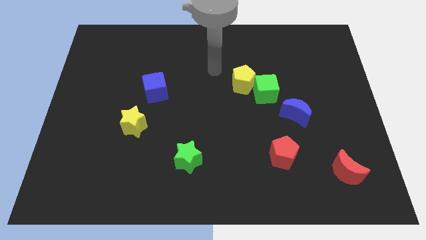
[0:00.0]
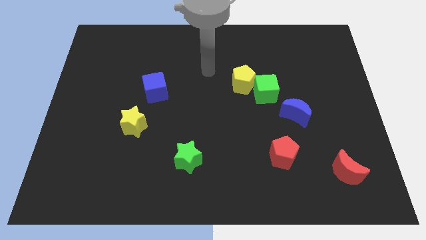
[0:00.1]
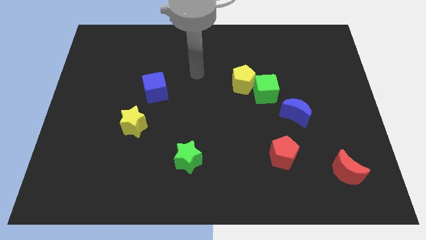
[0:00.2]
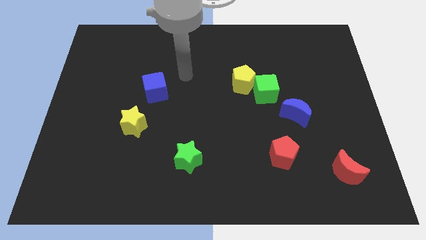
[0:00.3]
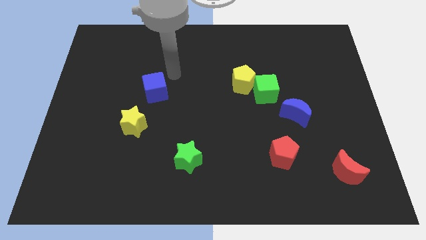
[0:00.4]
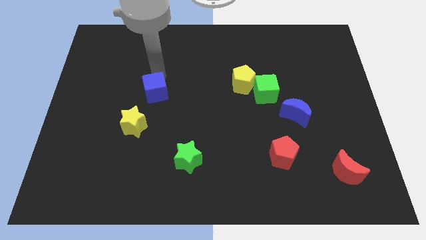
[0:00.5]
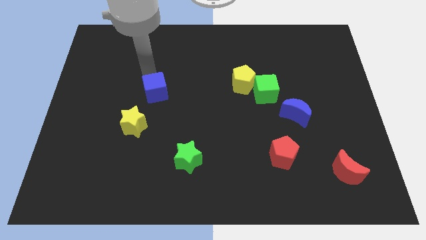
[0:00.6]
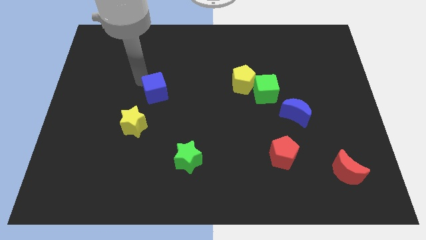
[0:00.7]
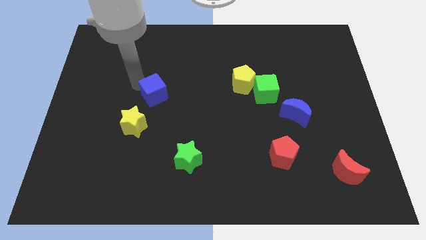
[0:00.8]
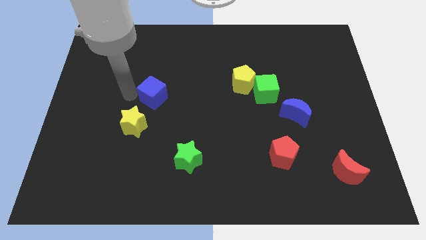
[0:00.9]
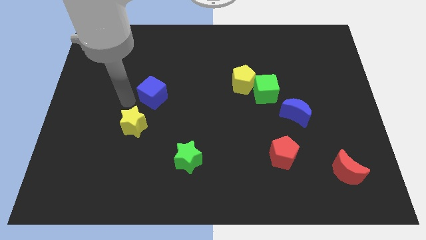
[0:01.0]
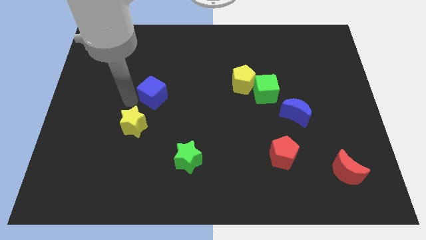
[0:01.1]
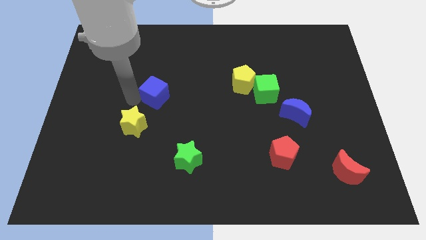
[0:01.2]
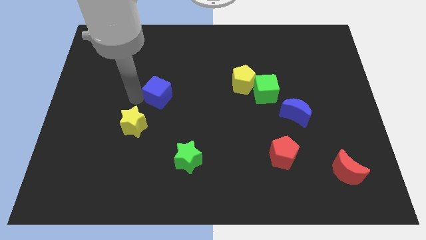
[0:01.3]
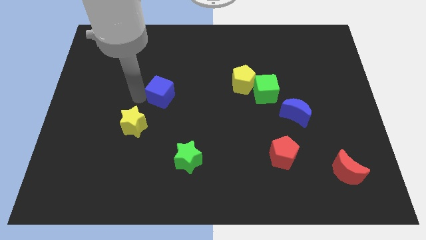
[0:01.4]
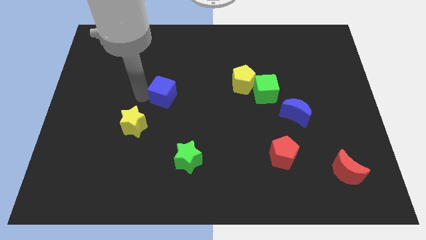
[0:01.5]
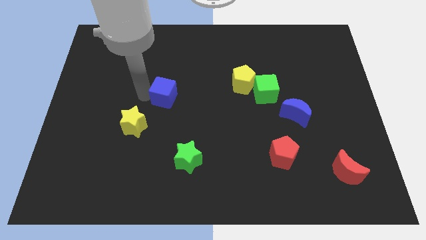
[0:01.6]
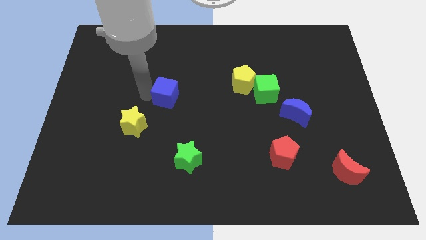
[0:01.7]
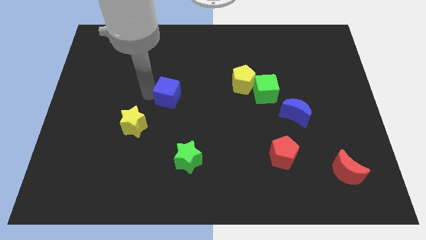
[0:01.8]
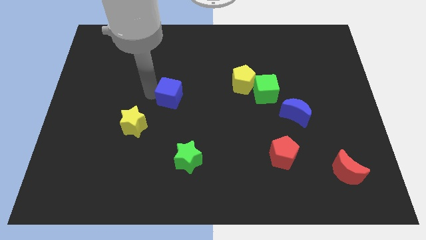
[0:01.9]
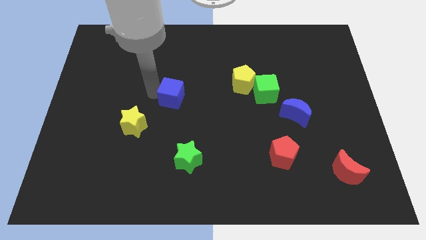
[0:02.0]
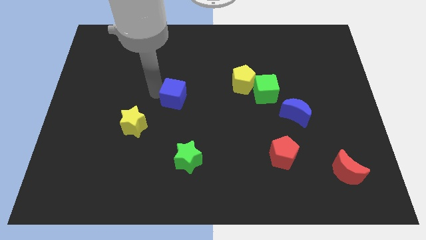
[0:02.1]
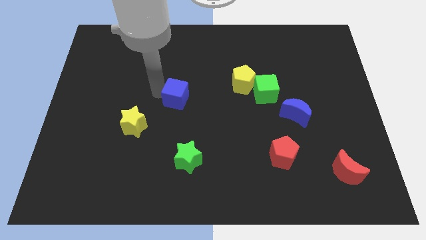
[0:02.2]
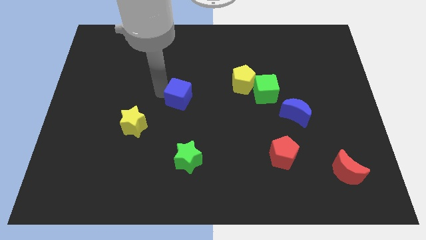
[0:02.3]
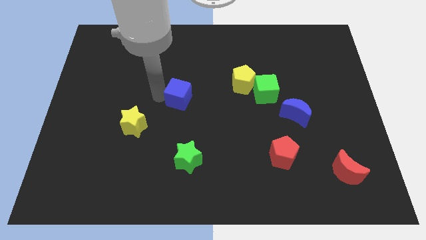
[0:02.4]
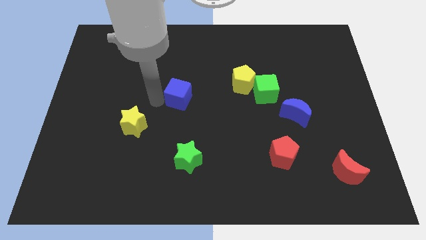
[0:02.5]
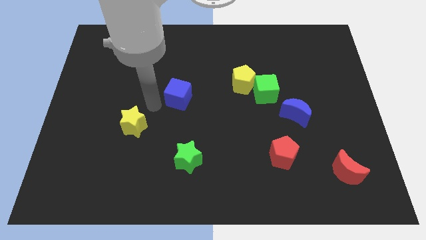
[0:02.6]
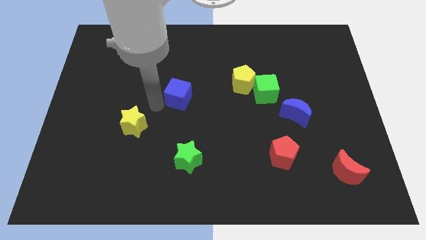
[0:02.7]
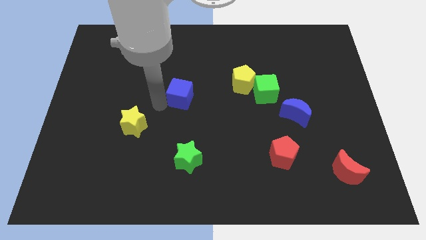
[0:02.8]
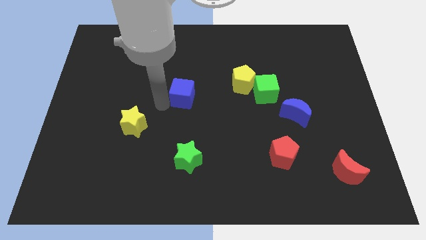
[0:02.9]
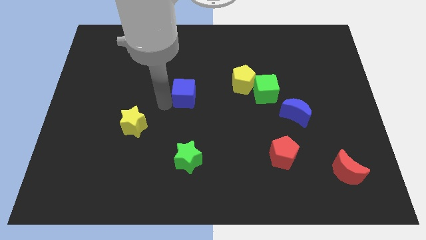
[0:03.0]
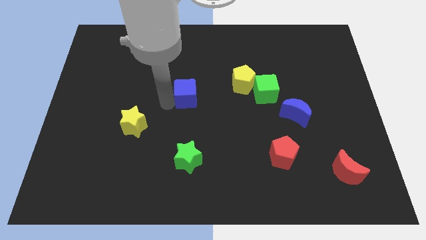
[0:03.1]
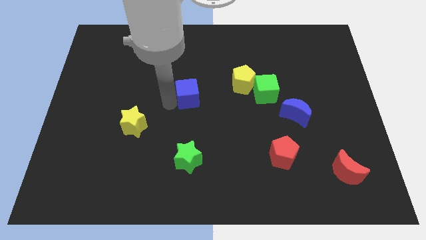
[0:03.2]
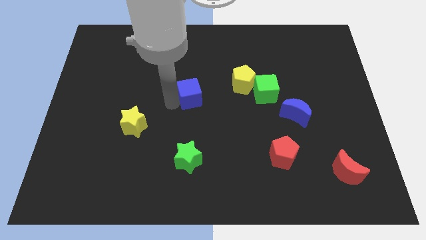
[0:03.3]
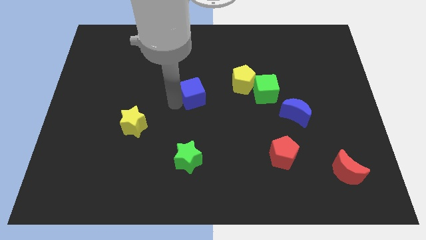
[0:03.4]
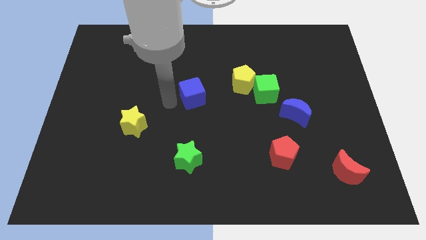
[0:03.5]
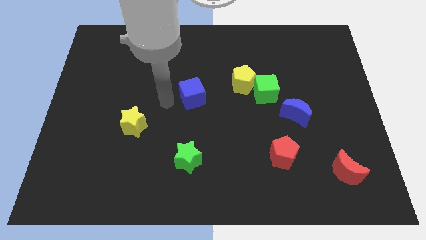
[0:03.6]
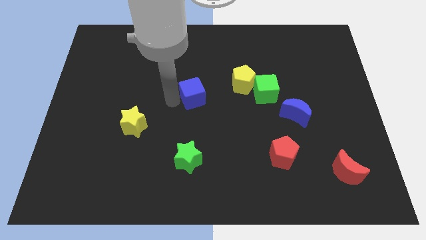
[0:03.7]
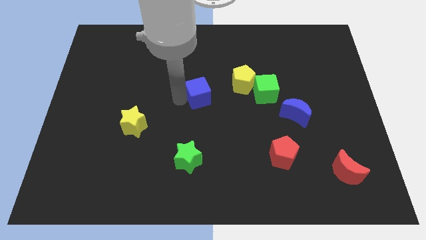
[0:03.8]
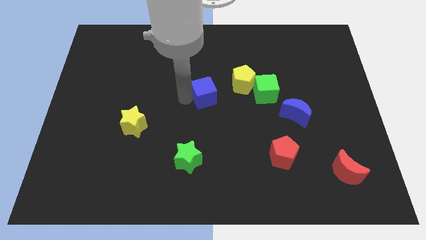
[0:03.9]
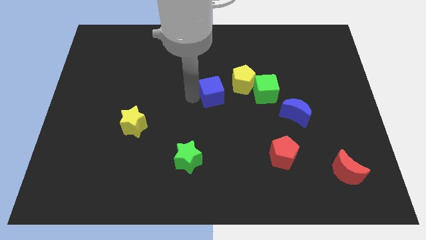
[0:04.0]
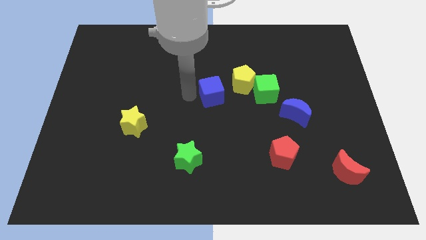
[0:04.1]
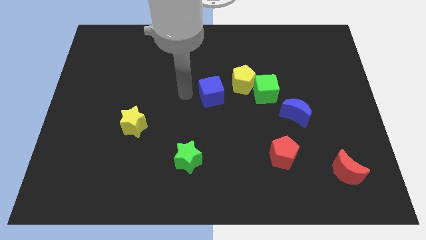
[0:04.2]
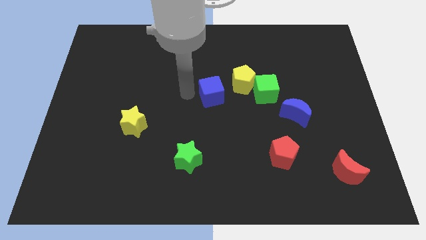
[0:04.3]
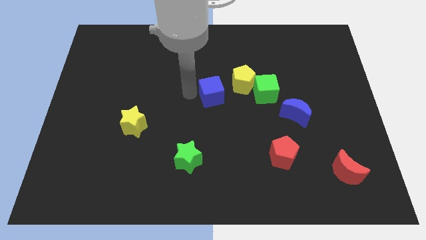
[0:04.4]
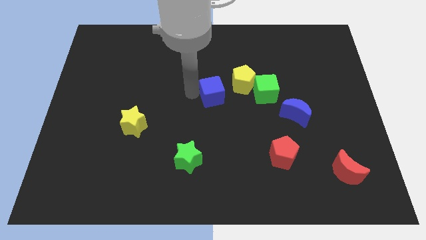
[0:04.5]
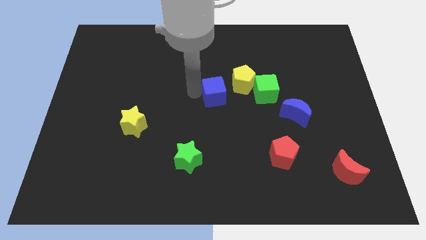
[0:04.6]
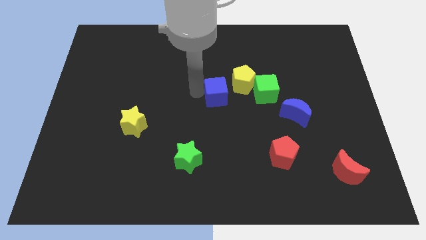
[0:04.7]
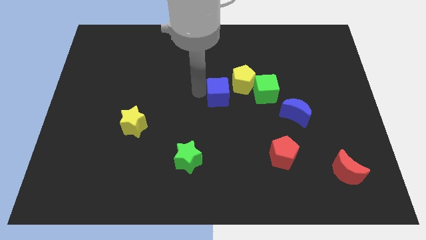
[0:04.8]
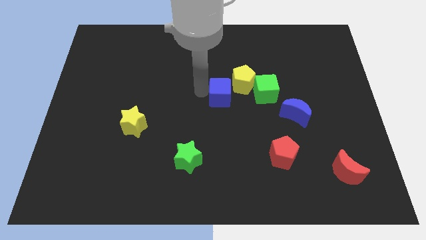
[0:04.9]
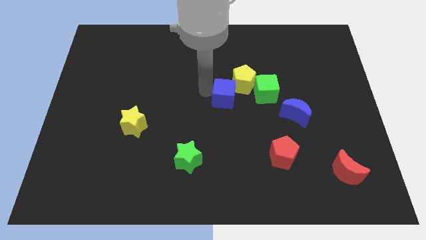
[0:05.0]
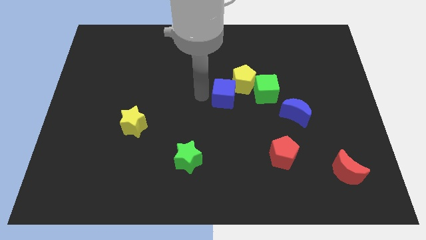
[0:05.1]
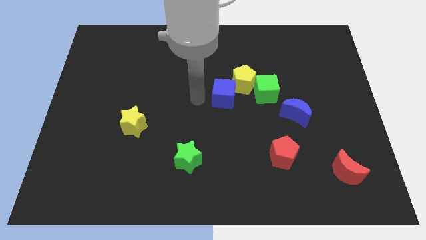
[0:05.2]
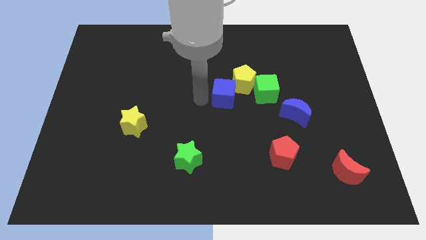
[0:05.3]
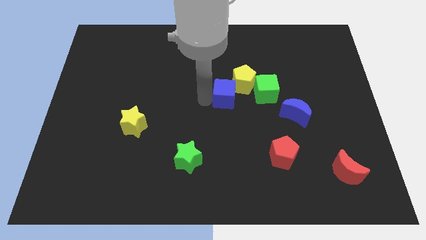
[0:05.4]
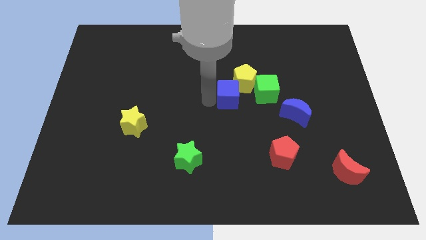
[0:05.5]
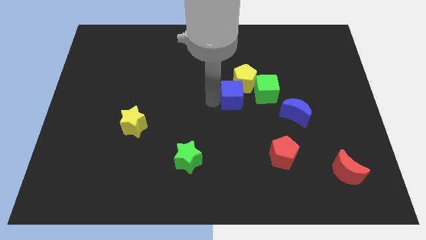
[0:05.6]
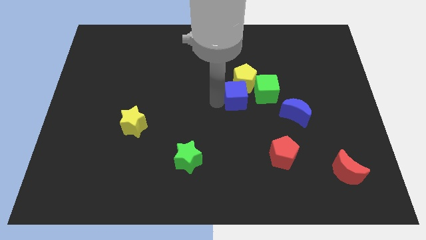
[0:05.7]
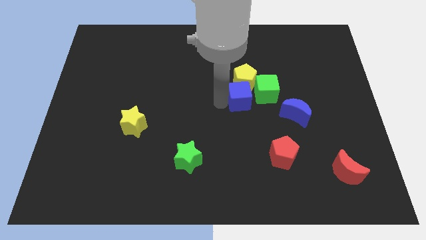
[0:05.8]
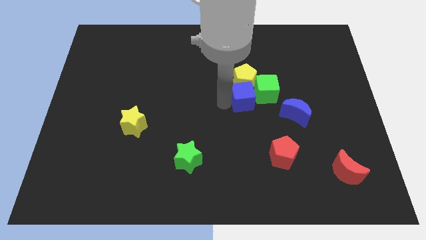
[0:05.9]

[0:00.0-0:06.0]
move the blue cube next to the green cube

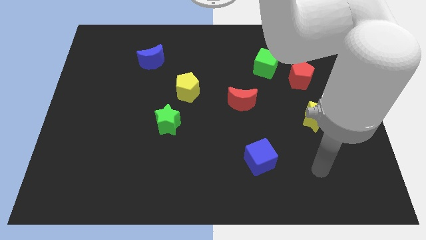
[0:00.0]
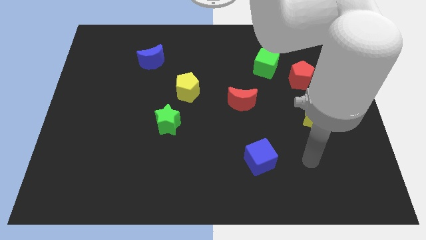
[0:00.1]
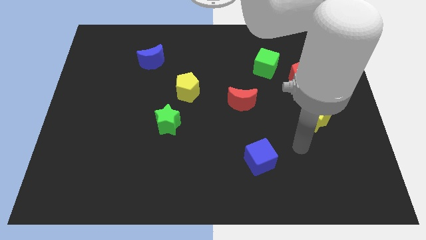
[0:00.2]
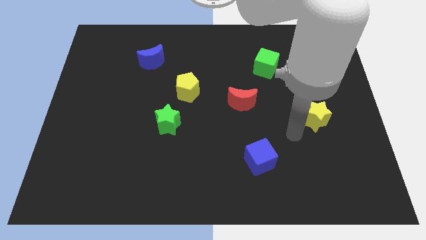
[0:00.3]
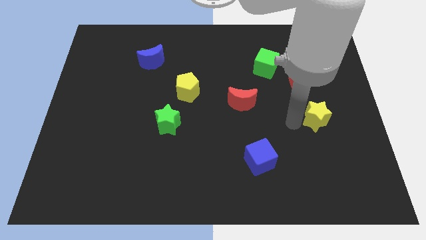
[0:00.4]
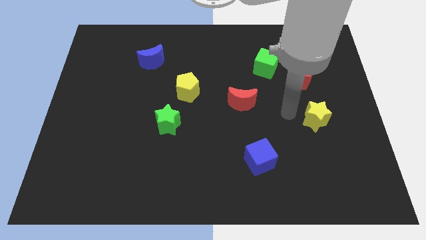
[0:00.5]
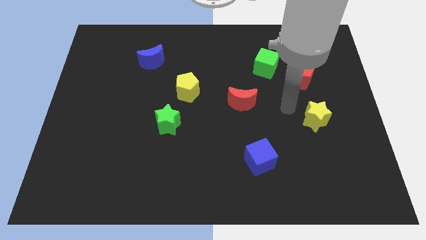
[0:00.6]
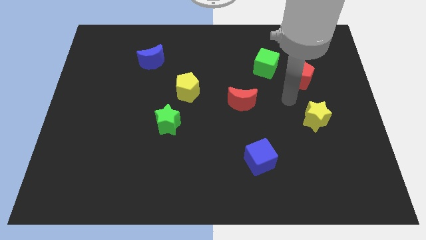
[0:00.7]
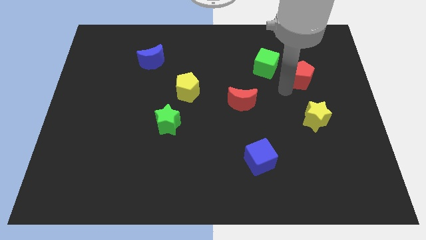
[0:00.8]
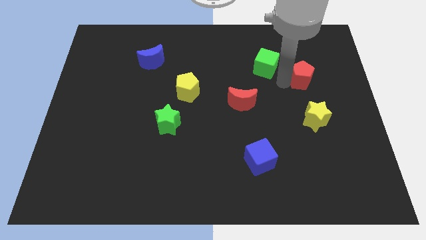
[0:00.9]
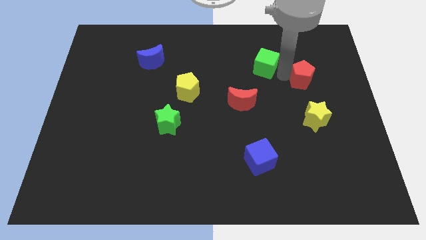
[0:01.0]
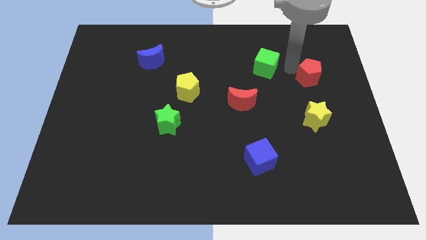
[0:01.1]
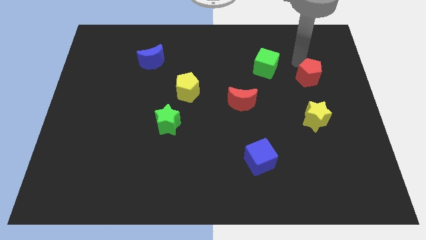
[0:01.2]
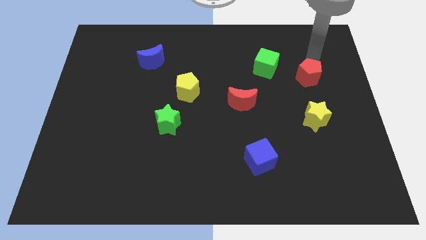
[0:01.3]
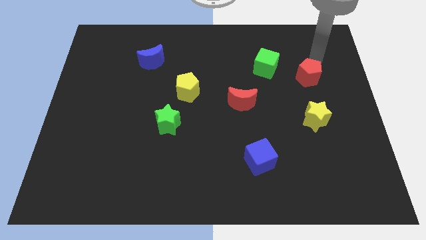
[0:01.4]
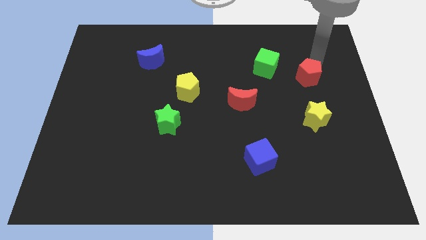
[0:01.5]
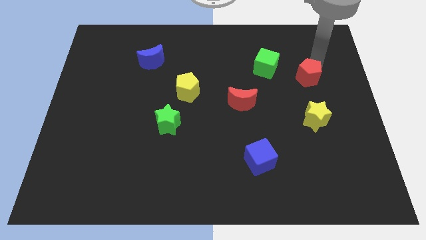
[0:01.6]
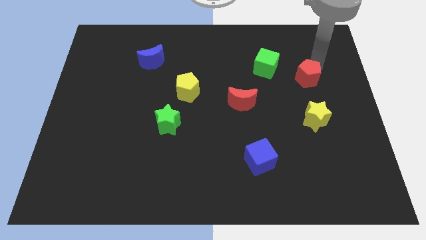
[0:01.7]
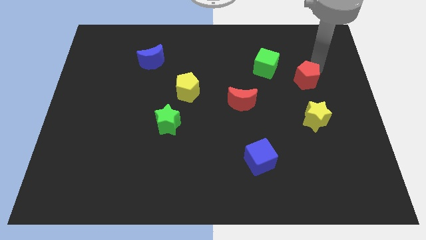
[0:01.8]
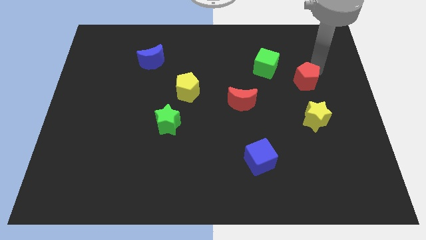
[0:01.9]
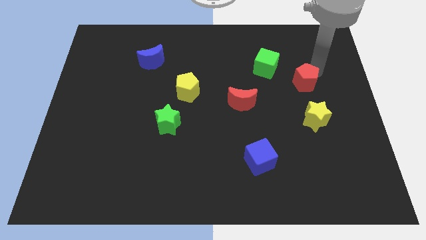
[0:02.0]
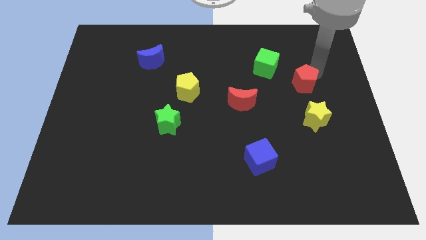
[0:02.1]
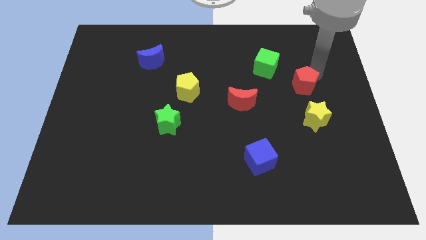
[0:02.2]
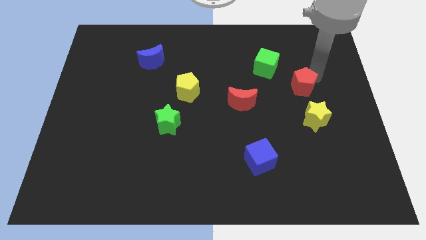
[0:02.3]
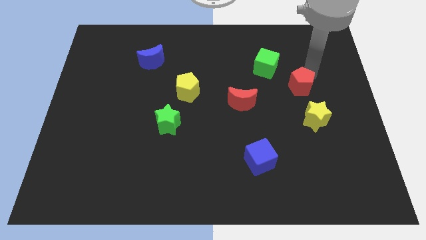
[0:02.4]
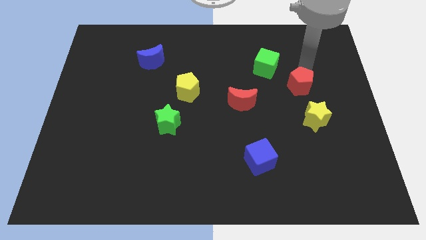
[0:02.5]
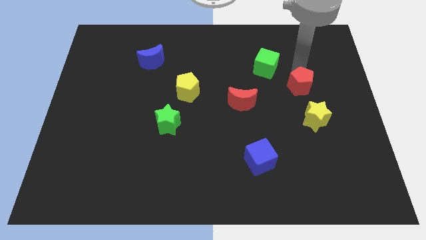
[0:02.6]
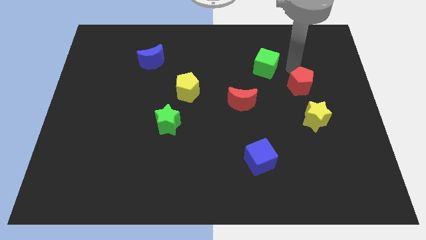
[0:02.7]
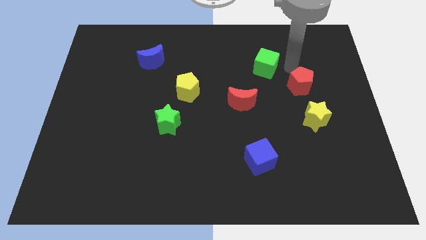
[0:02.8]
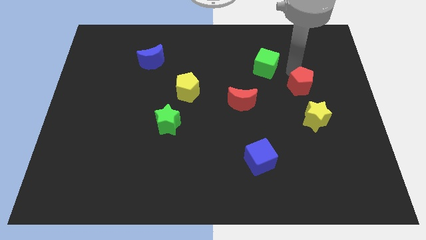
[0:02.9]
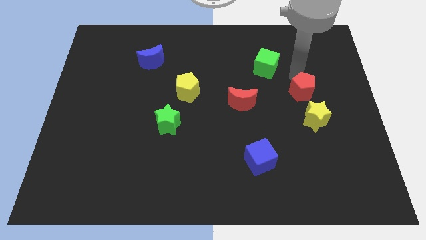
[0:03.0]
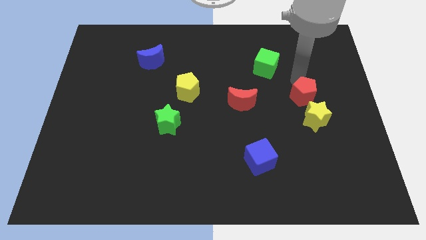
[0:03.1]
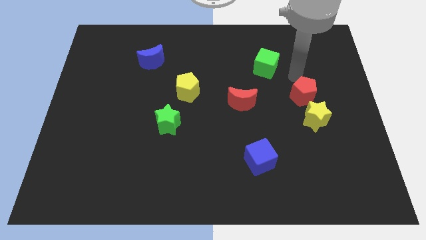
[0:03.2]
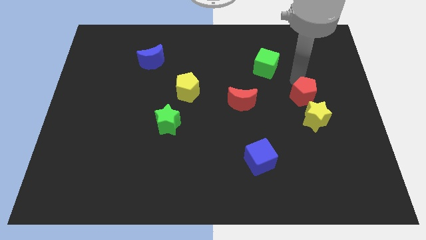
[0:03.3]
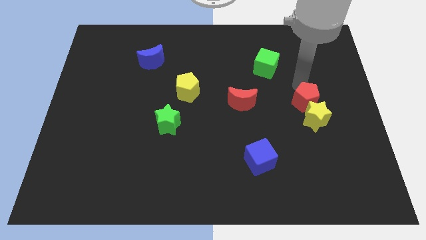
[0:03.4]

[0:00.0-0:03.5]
put the red pentagon to the yellow star
